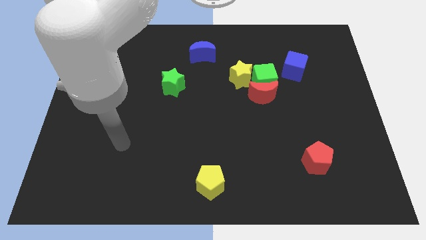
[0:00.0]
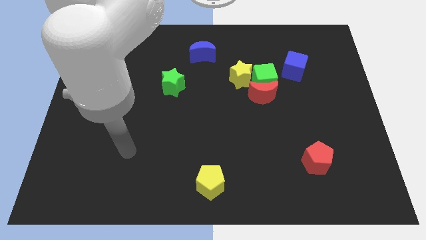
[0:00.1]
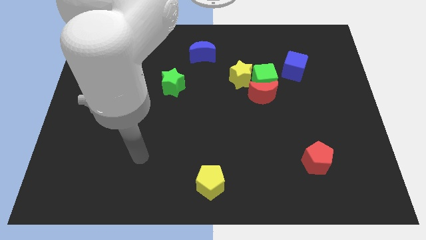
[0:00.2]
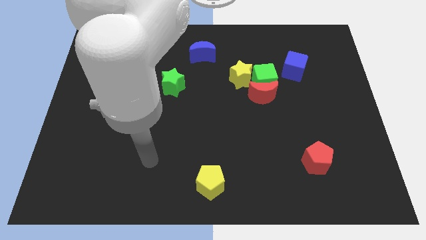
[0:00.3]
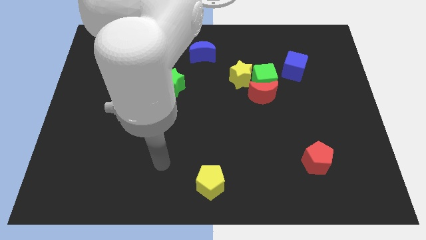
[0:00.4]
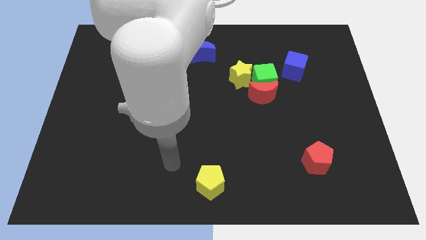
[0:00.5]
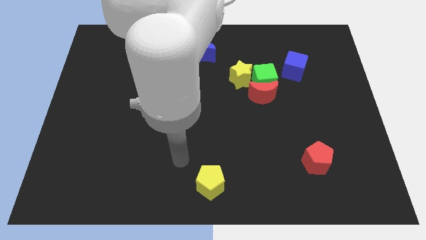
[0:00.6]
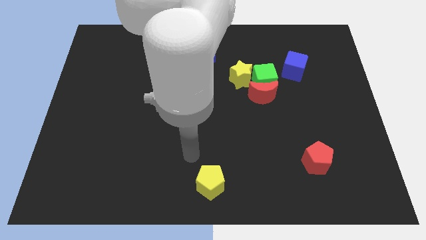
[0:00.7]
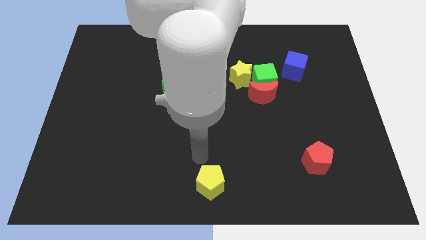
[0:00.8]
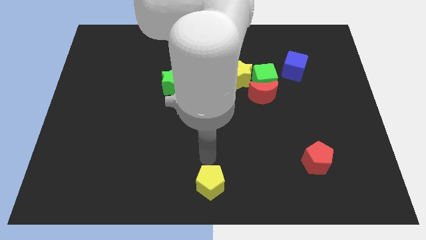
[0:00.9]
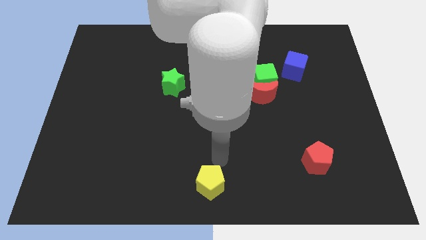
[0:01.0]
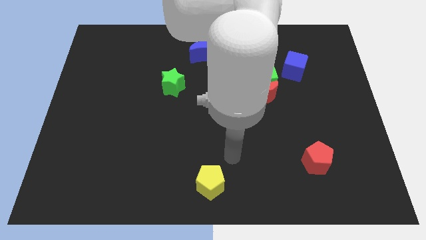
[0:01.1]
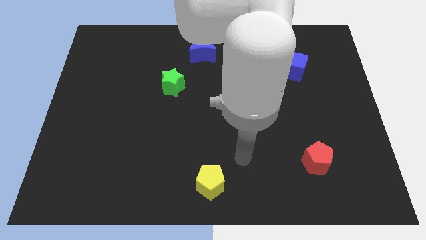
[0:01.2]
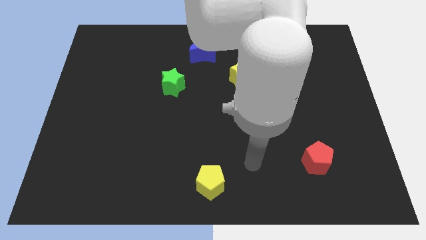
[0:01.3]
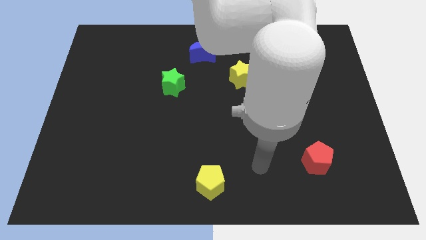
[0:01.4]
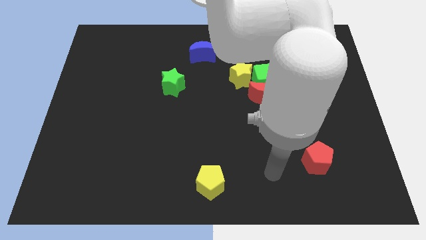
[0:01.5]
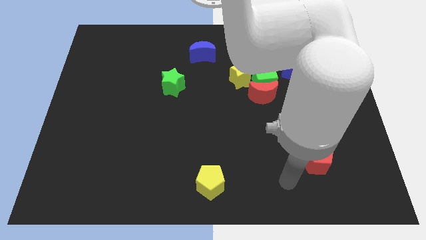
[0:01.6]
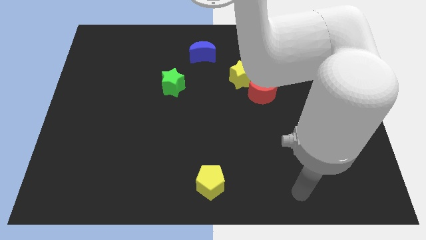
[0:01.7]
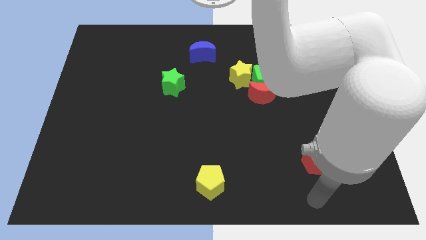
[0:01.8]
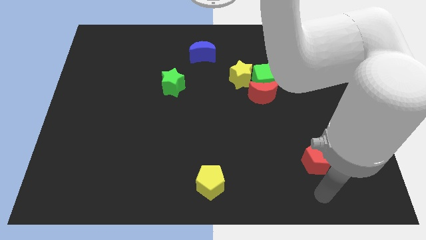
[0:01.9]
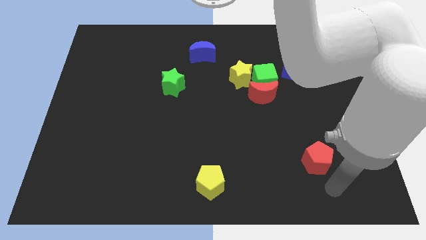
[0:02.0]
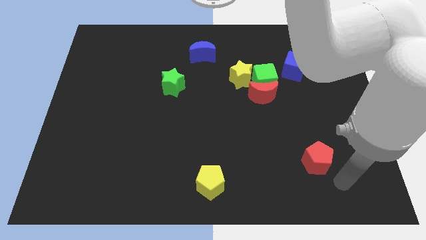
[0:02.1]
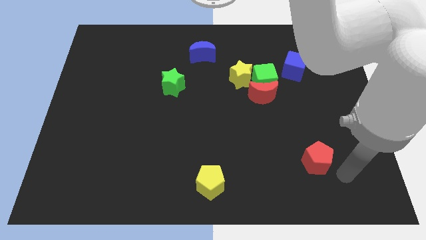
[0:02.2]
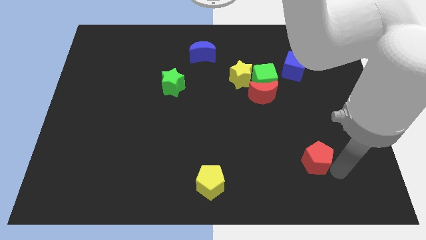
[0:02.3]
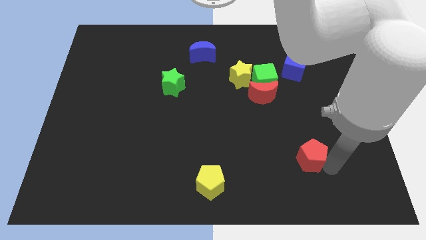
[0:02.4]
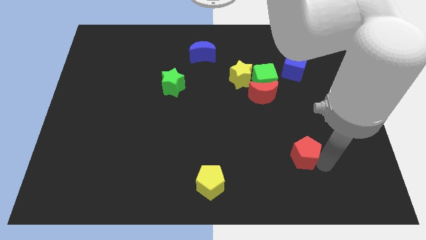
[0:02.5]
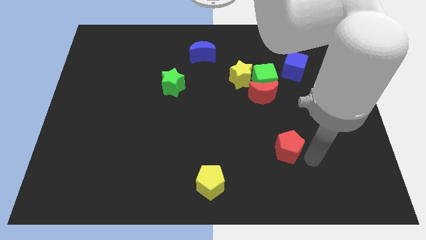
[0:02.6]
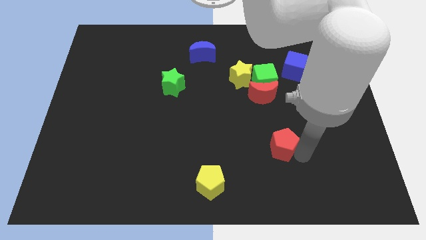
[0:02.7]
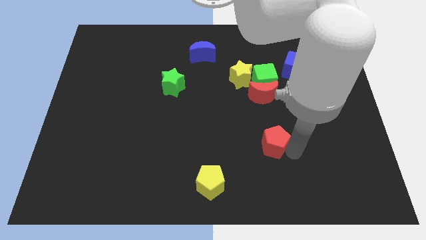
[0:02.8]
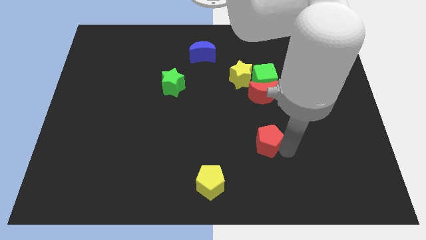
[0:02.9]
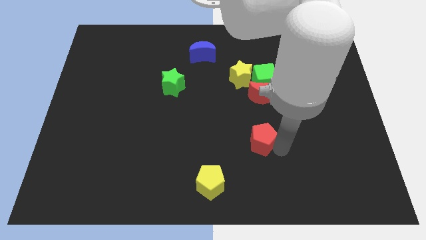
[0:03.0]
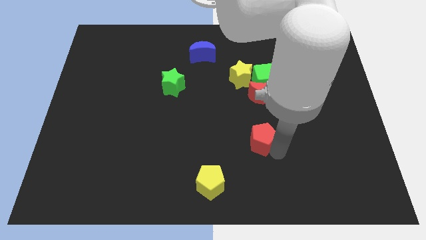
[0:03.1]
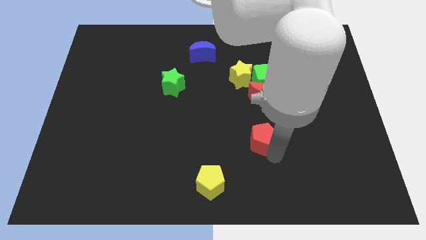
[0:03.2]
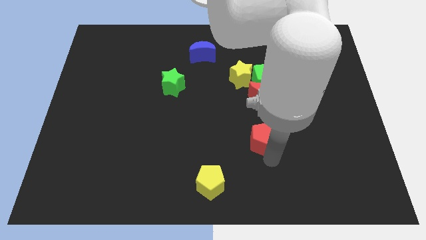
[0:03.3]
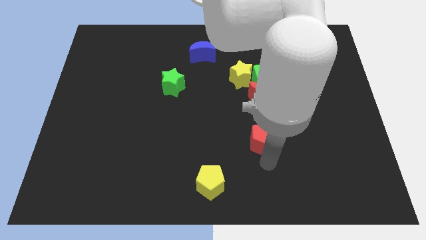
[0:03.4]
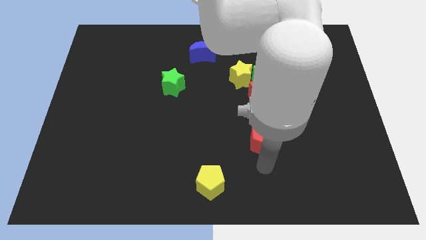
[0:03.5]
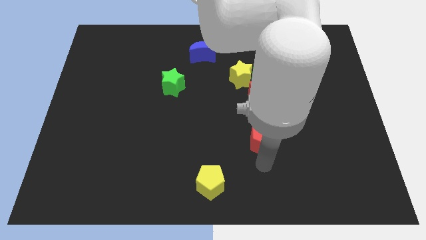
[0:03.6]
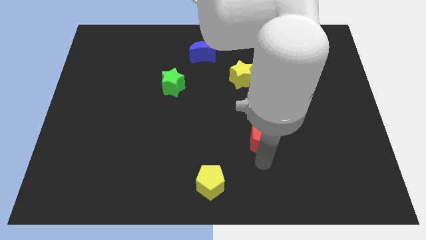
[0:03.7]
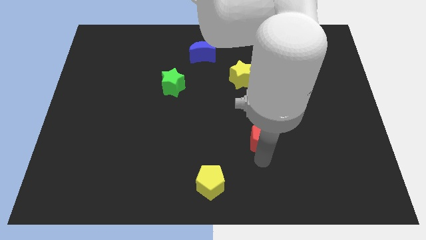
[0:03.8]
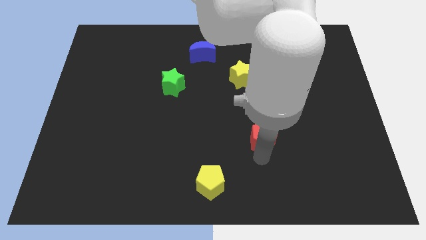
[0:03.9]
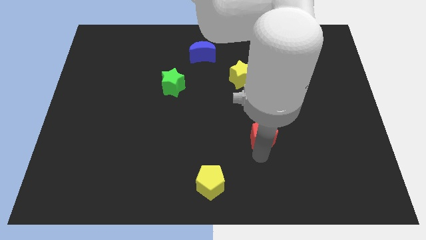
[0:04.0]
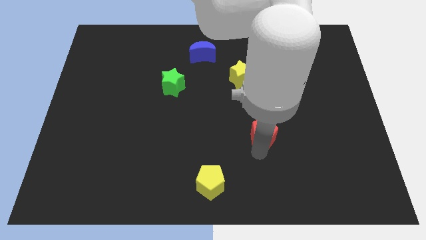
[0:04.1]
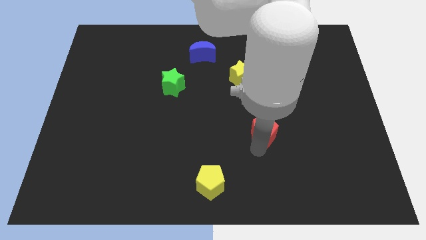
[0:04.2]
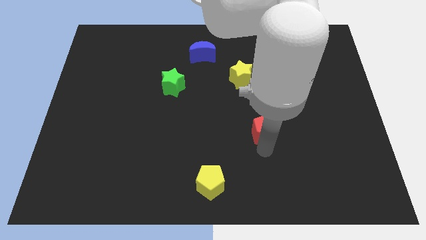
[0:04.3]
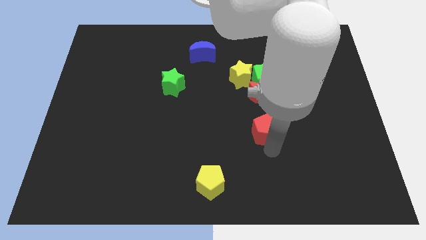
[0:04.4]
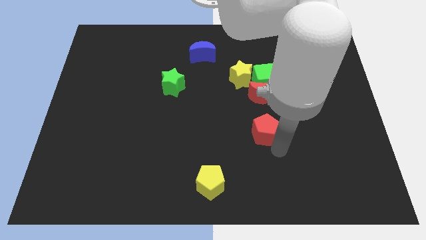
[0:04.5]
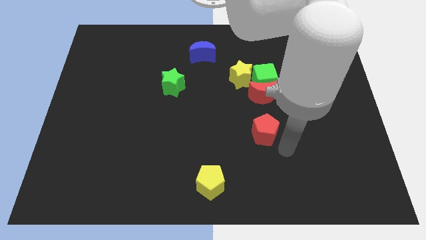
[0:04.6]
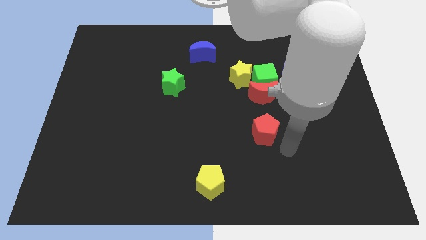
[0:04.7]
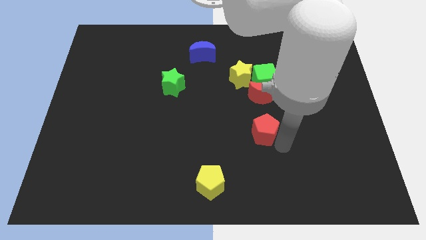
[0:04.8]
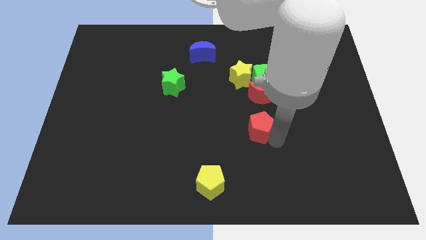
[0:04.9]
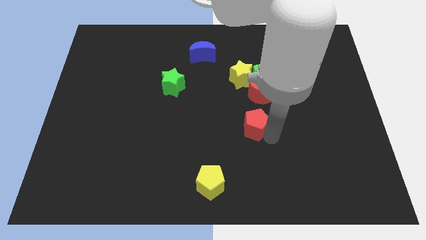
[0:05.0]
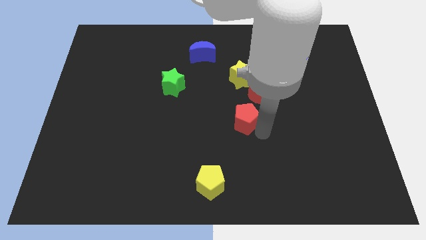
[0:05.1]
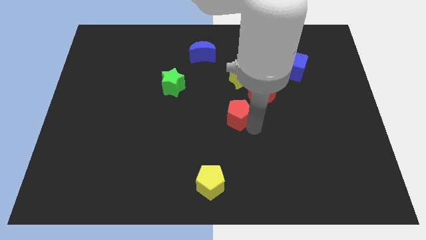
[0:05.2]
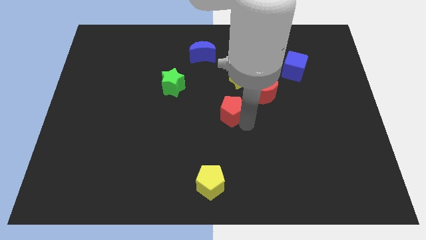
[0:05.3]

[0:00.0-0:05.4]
move the red pentagon upwards and to the left

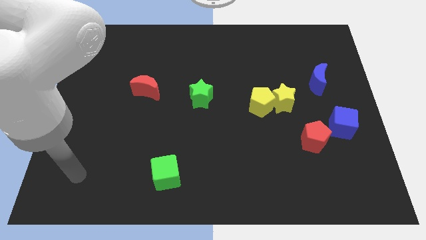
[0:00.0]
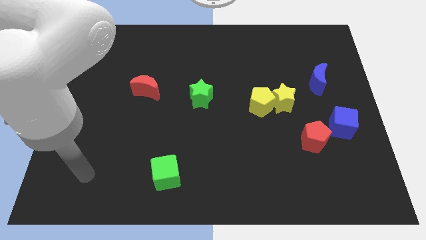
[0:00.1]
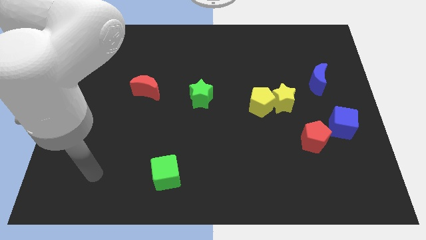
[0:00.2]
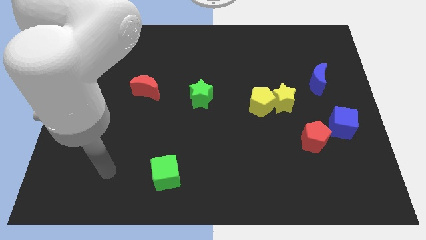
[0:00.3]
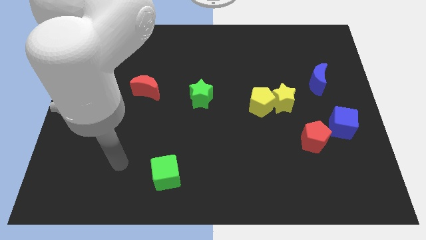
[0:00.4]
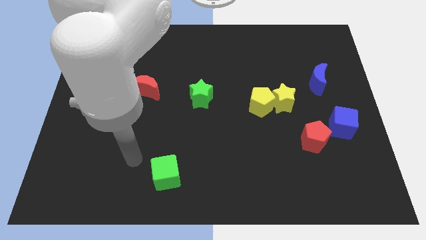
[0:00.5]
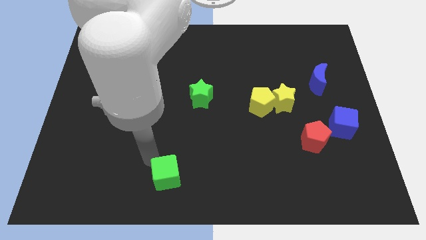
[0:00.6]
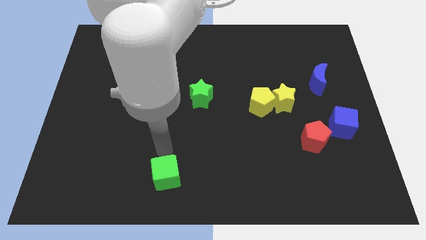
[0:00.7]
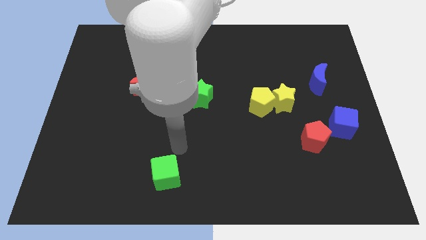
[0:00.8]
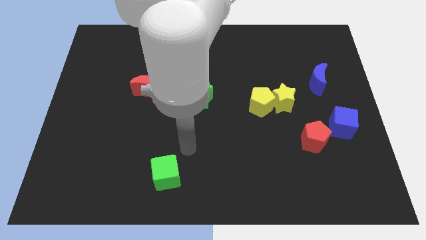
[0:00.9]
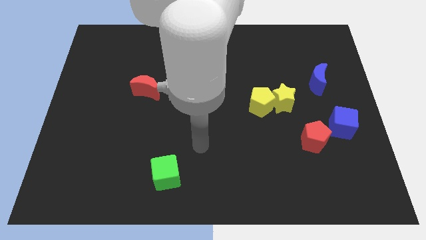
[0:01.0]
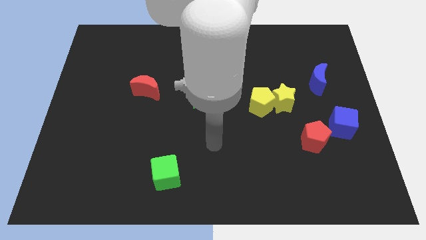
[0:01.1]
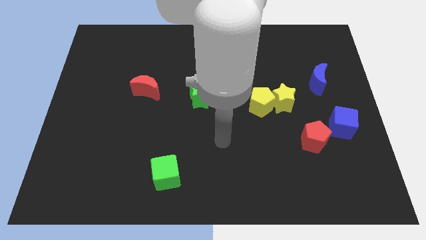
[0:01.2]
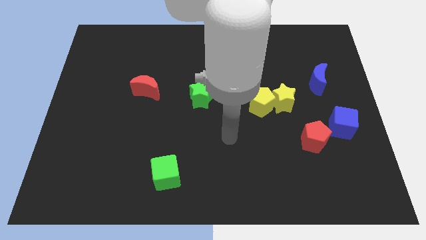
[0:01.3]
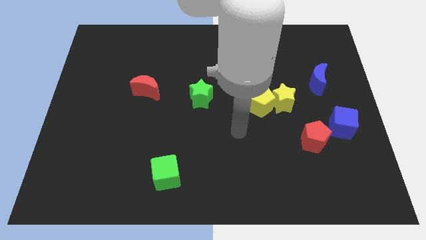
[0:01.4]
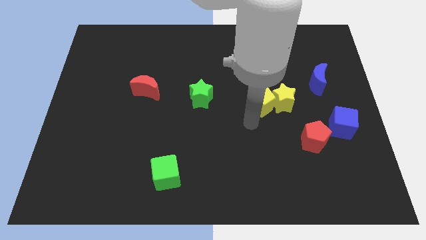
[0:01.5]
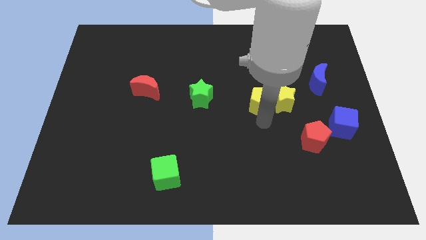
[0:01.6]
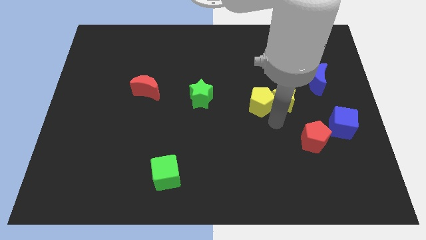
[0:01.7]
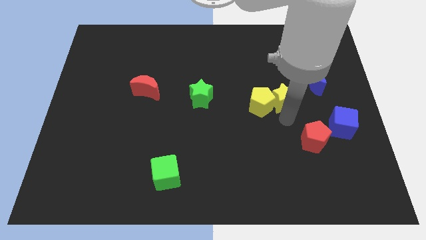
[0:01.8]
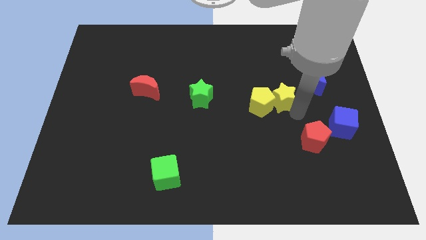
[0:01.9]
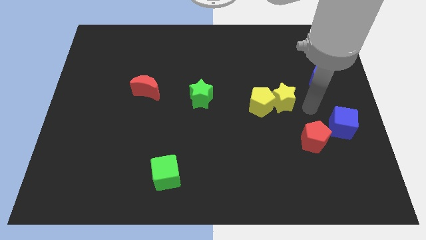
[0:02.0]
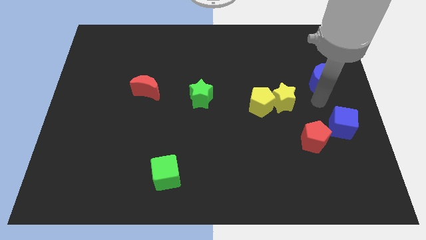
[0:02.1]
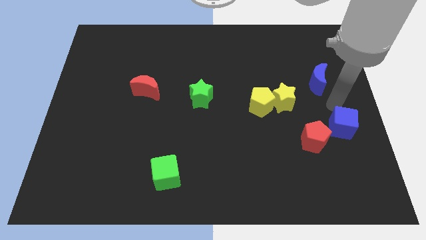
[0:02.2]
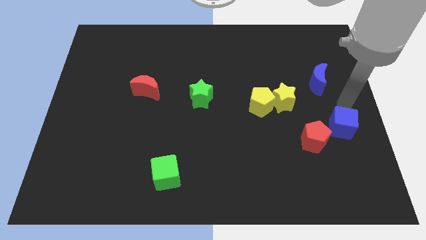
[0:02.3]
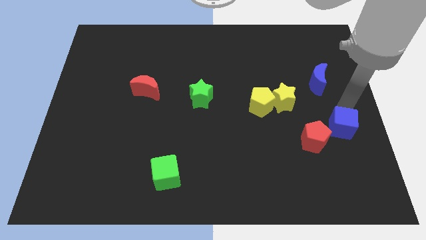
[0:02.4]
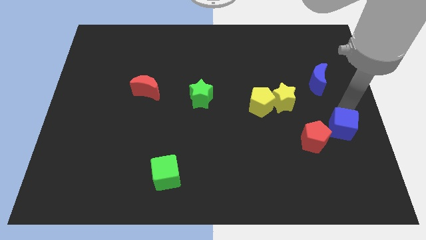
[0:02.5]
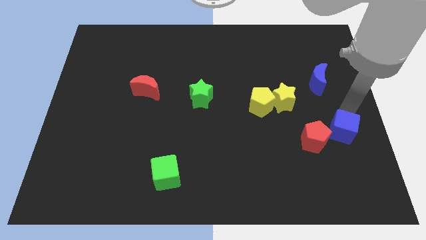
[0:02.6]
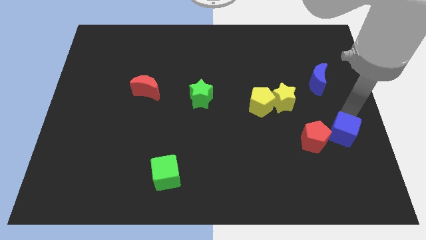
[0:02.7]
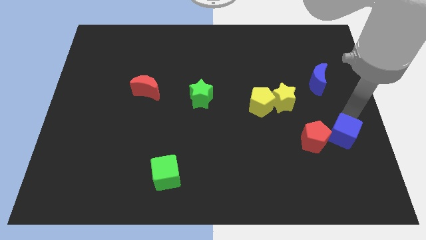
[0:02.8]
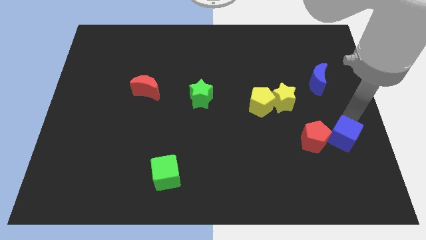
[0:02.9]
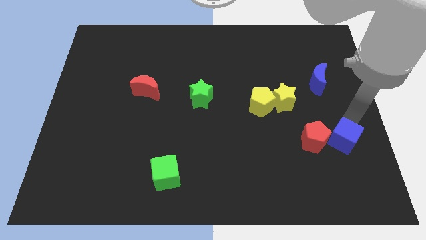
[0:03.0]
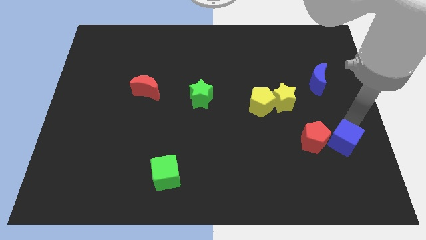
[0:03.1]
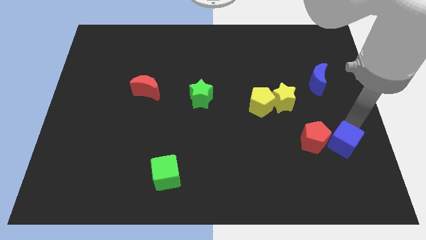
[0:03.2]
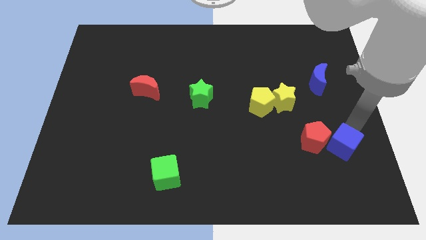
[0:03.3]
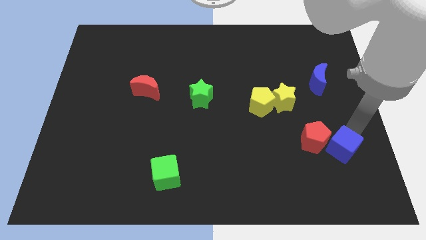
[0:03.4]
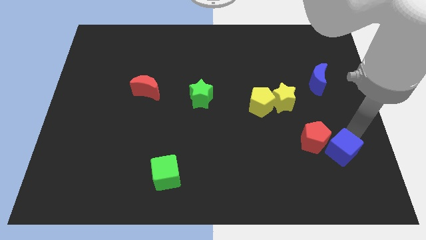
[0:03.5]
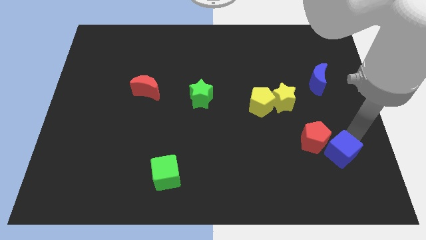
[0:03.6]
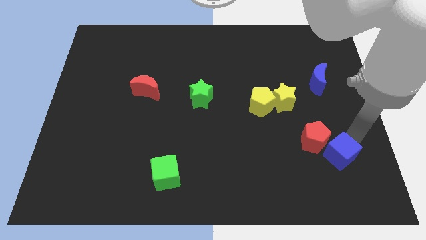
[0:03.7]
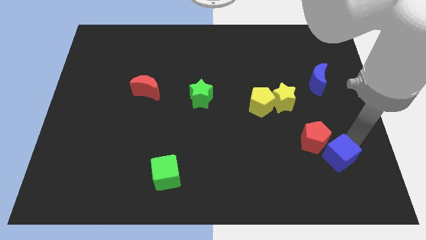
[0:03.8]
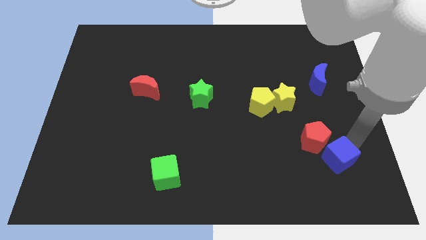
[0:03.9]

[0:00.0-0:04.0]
move the blue cube downwards and then to the left a bit
